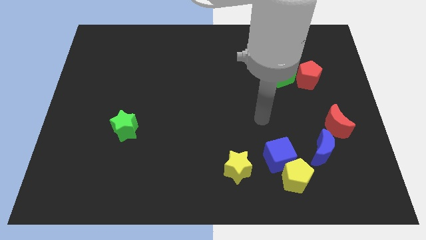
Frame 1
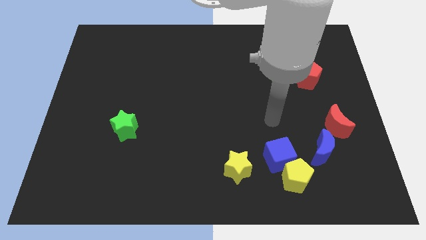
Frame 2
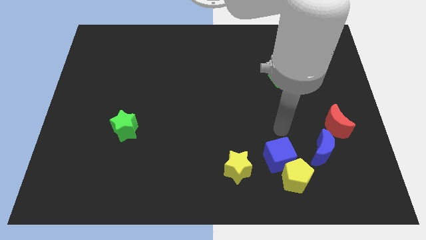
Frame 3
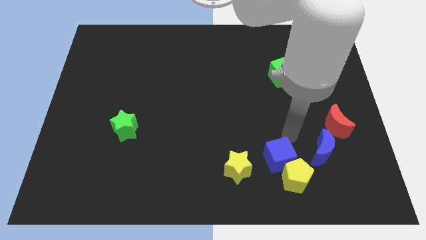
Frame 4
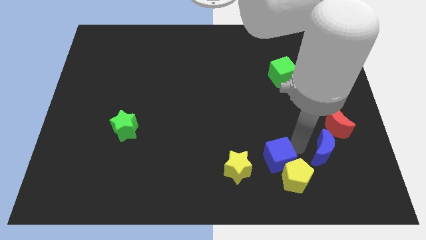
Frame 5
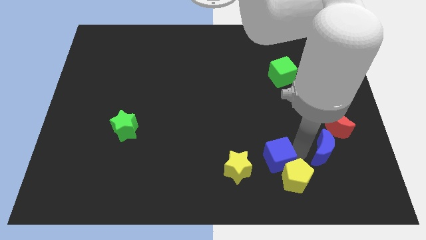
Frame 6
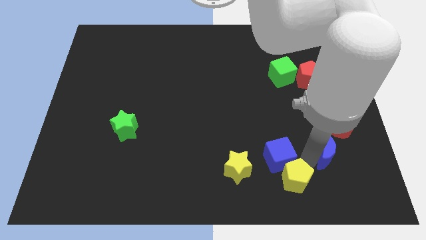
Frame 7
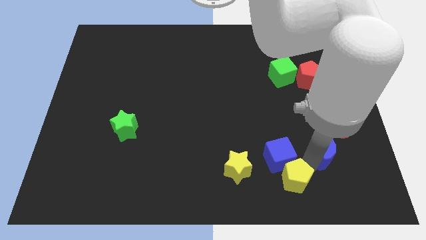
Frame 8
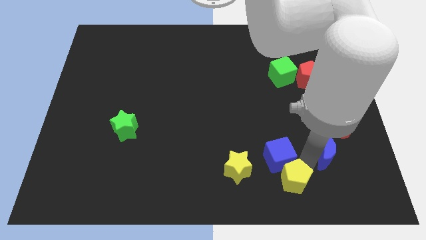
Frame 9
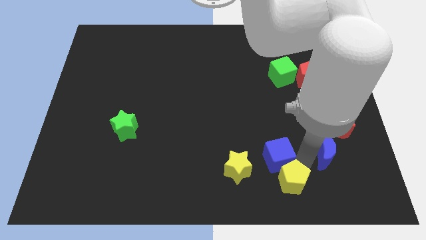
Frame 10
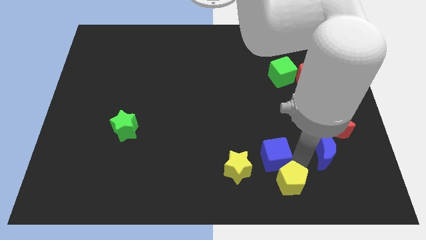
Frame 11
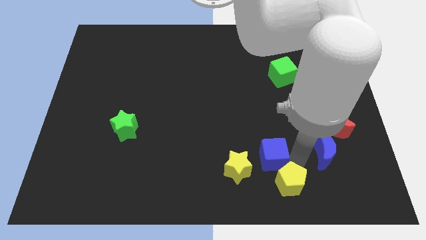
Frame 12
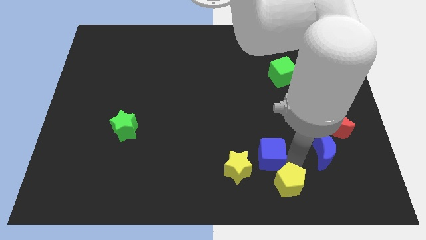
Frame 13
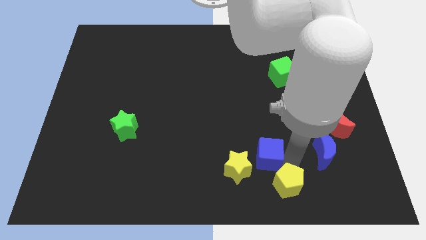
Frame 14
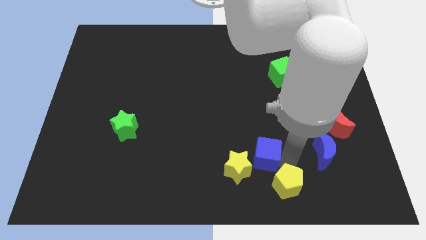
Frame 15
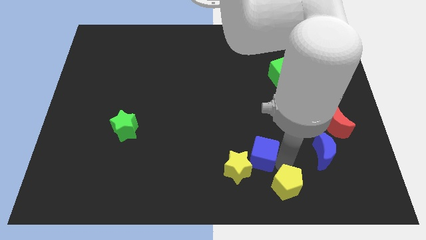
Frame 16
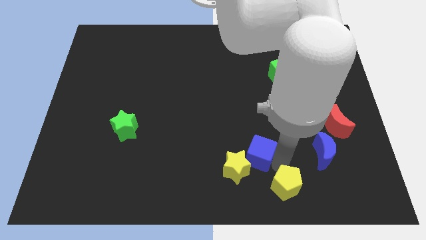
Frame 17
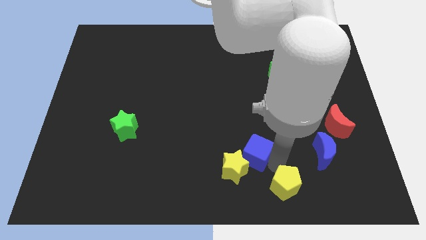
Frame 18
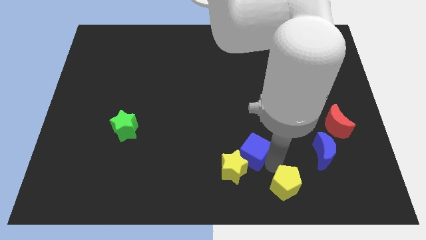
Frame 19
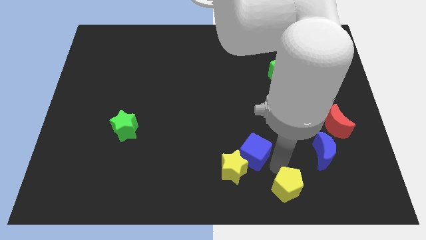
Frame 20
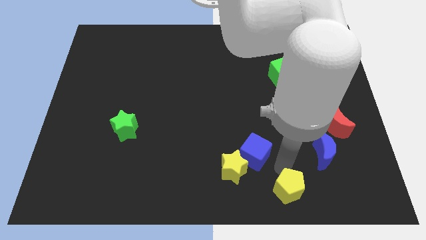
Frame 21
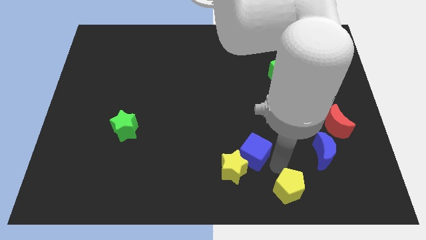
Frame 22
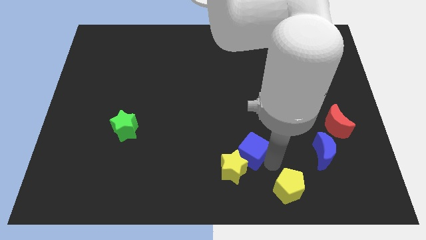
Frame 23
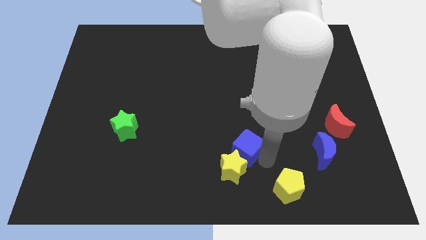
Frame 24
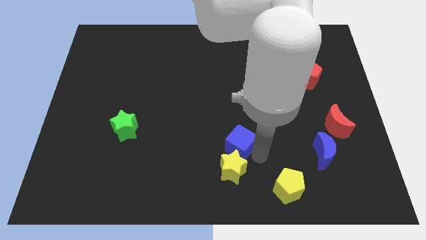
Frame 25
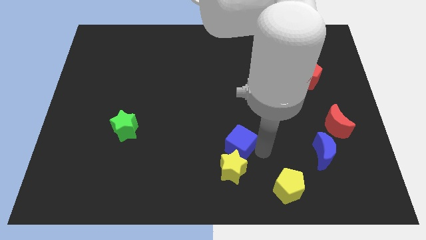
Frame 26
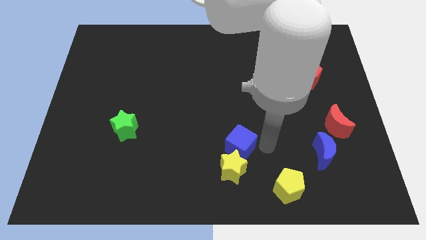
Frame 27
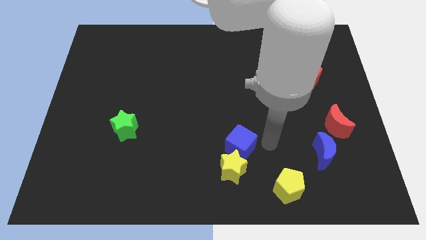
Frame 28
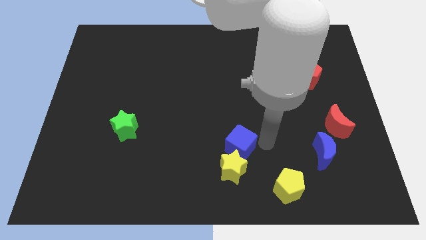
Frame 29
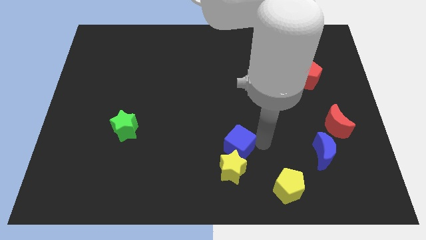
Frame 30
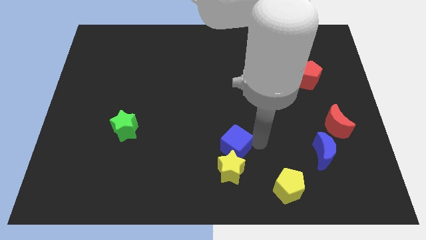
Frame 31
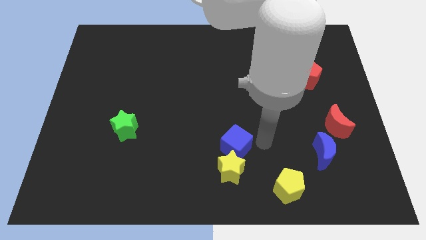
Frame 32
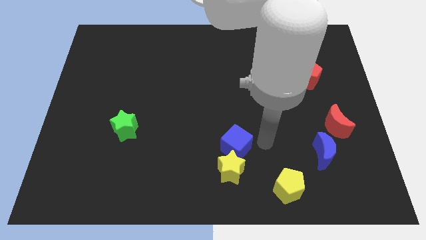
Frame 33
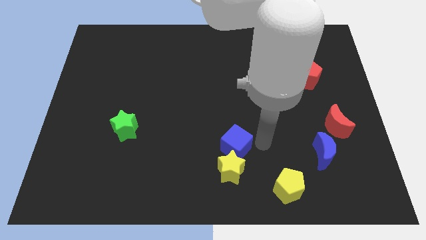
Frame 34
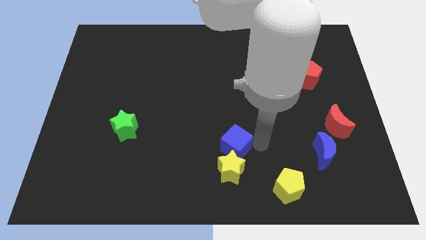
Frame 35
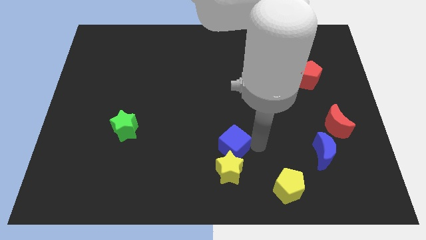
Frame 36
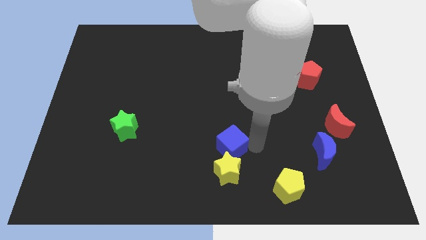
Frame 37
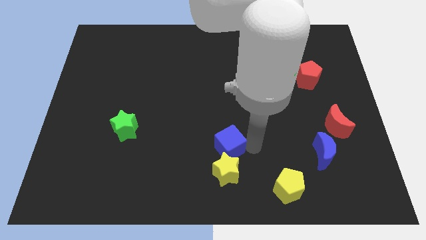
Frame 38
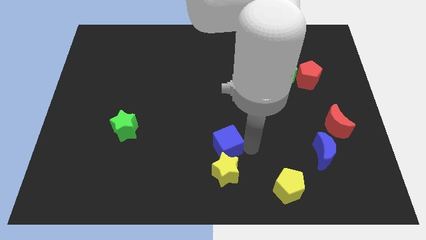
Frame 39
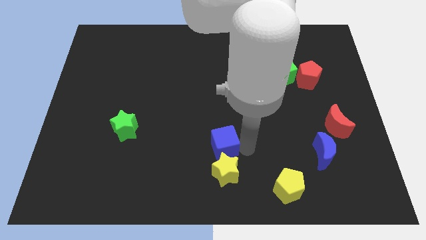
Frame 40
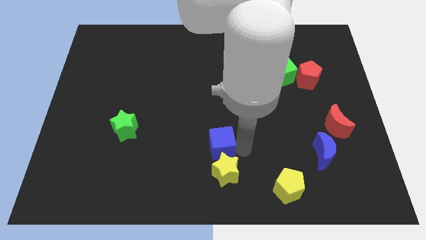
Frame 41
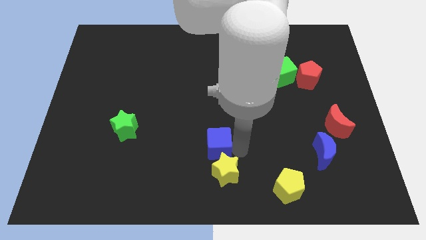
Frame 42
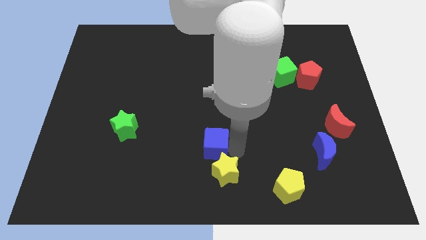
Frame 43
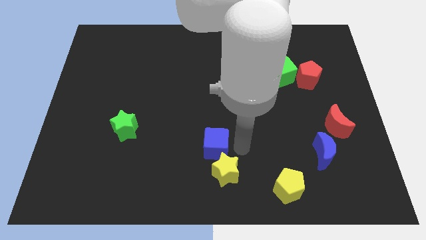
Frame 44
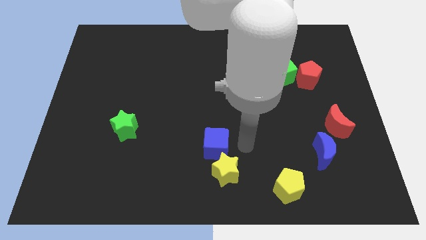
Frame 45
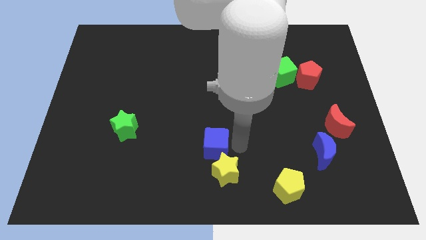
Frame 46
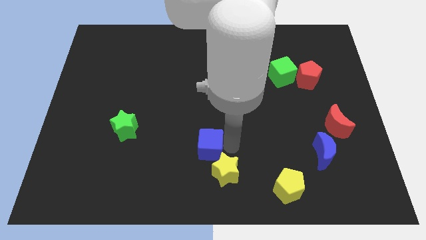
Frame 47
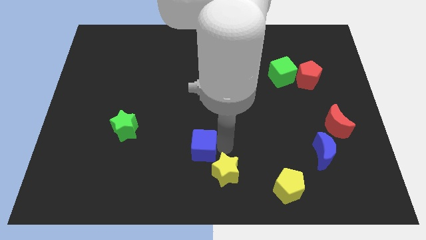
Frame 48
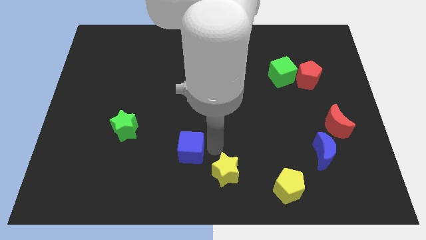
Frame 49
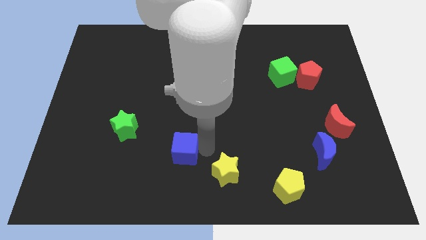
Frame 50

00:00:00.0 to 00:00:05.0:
move the blue cube left

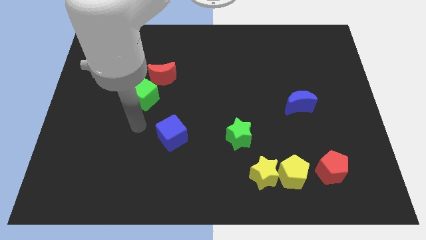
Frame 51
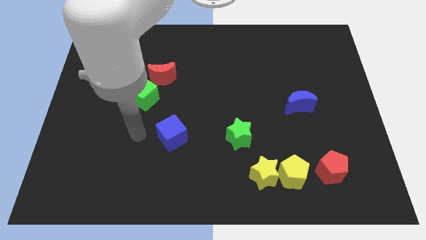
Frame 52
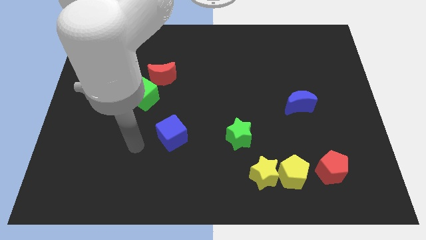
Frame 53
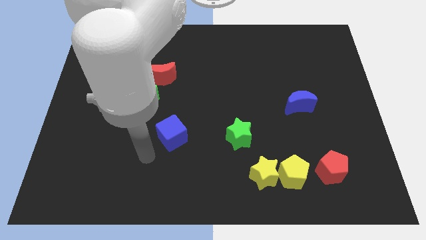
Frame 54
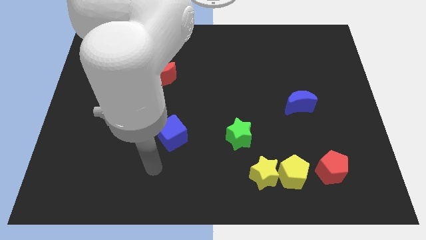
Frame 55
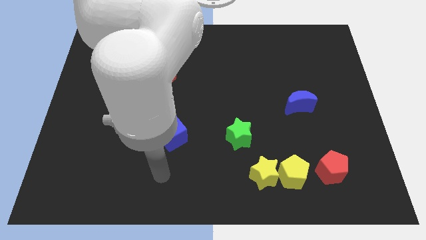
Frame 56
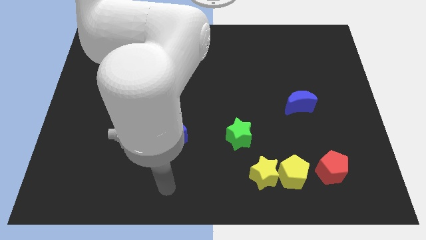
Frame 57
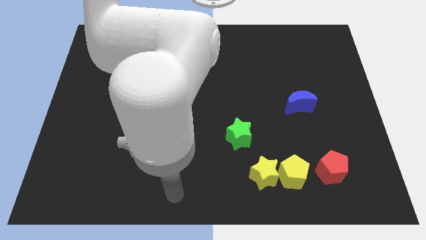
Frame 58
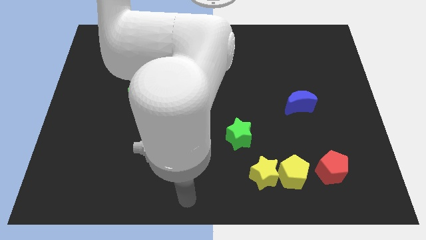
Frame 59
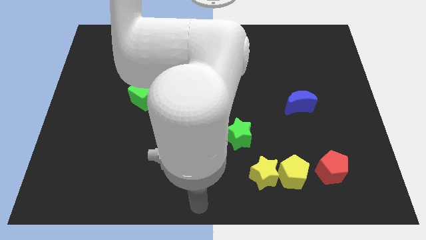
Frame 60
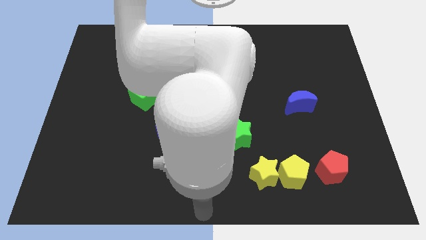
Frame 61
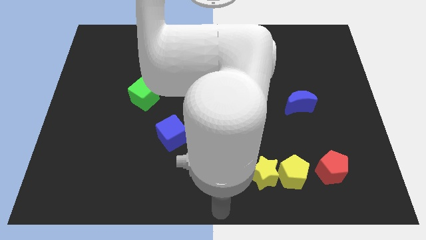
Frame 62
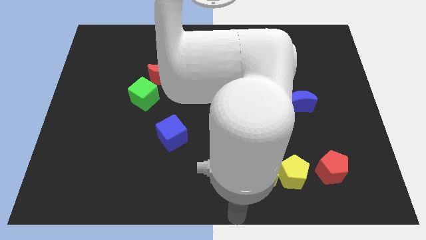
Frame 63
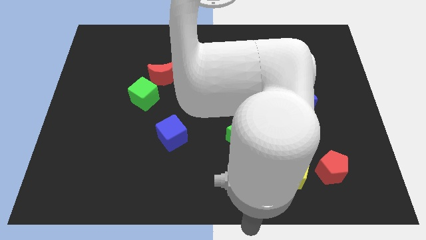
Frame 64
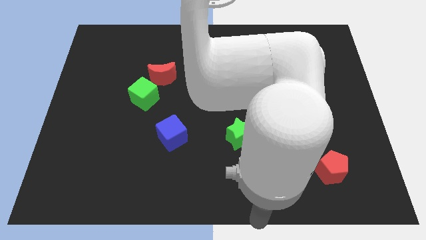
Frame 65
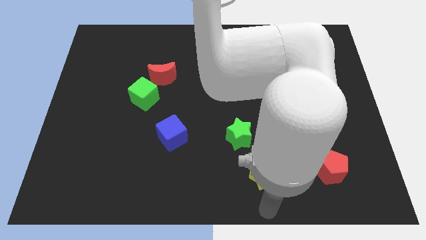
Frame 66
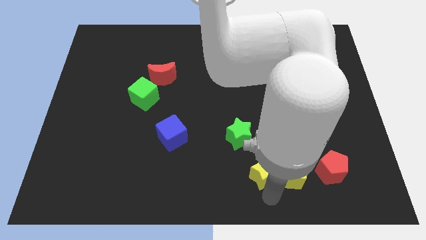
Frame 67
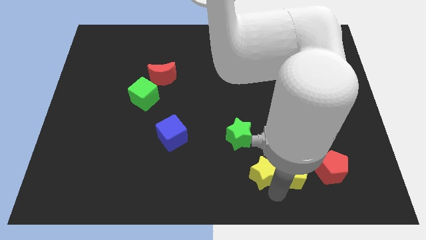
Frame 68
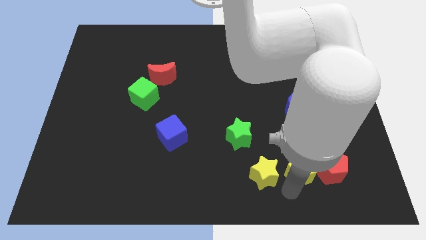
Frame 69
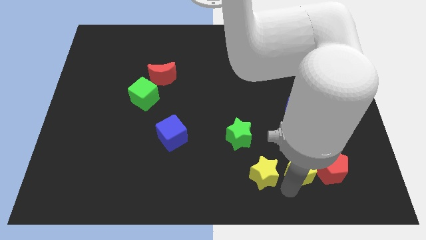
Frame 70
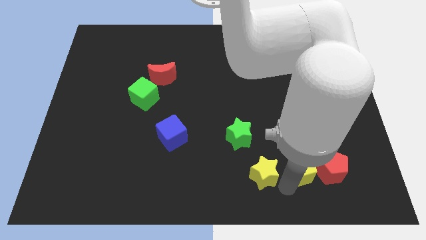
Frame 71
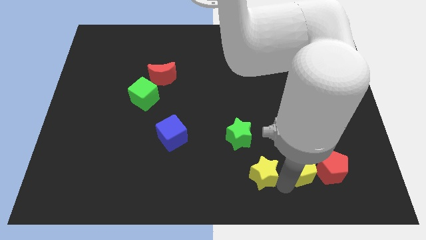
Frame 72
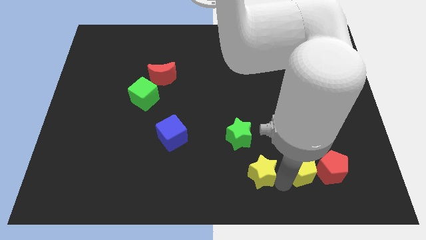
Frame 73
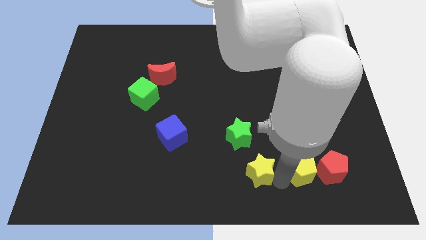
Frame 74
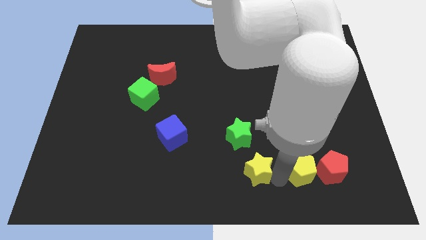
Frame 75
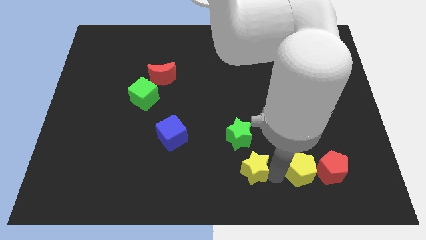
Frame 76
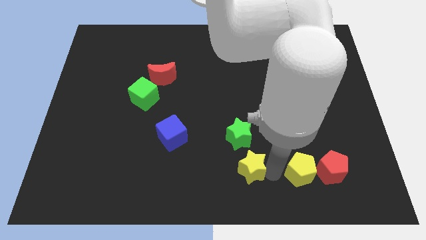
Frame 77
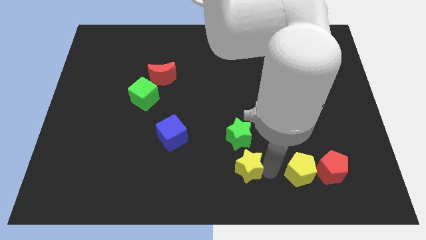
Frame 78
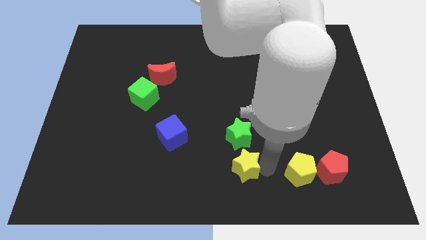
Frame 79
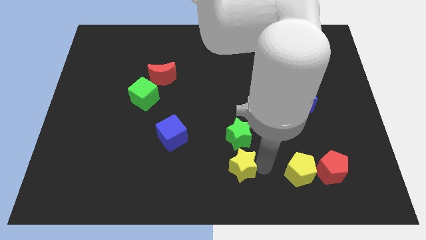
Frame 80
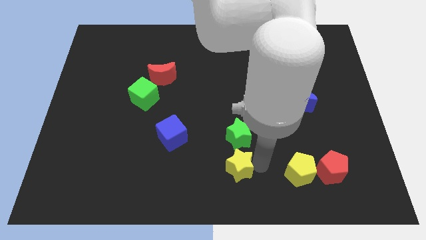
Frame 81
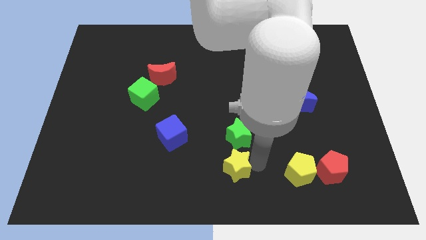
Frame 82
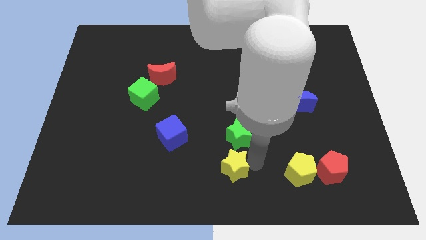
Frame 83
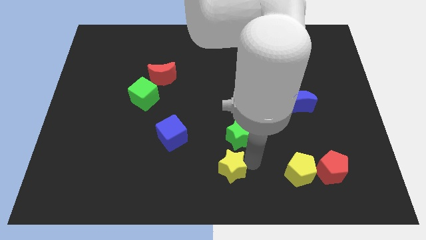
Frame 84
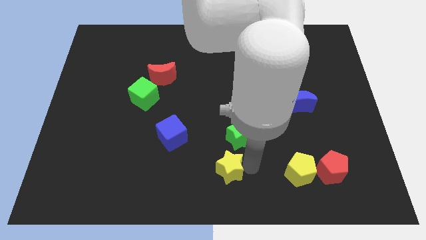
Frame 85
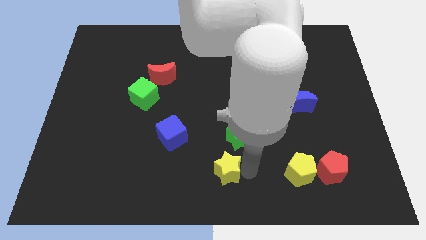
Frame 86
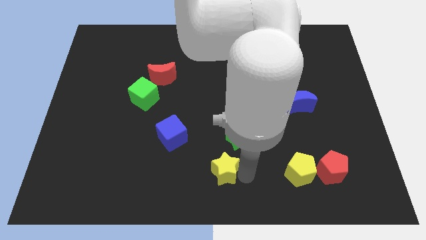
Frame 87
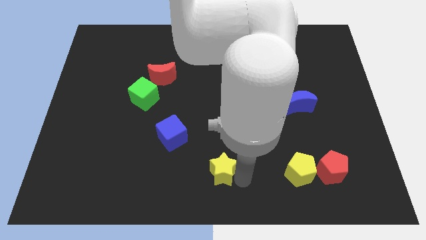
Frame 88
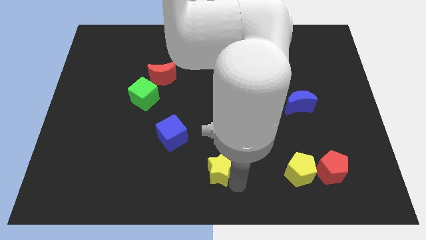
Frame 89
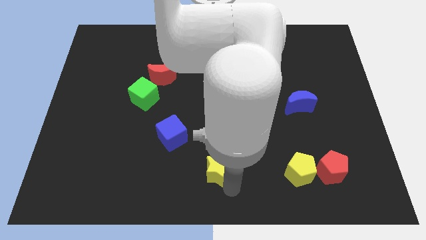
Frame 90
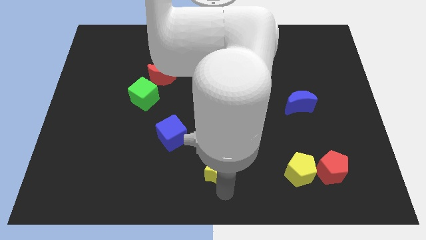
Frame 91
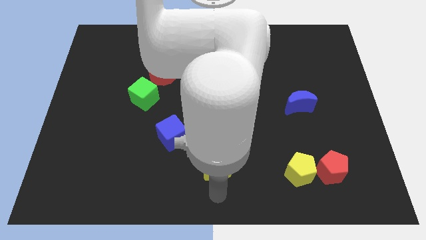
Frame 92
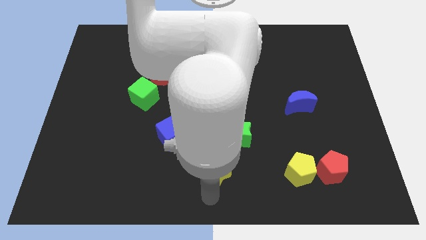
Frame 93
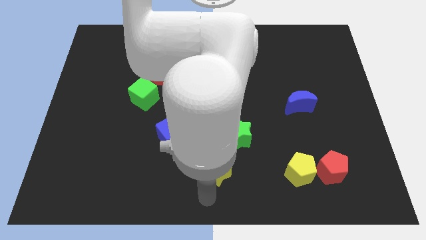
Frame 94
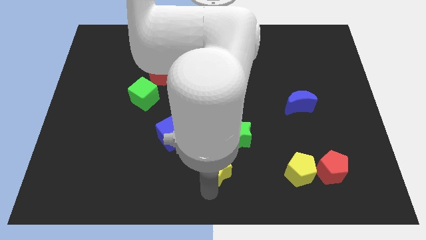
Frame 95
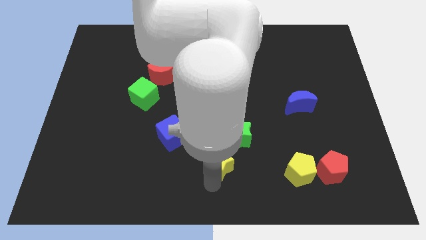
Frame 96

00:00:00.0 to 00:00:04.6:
slide the yellow star a little upwards and left
